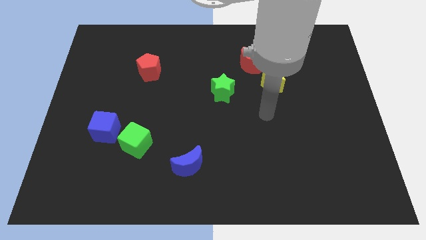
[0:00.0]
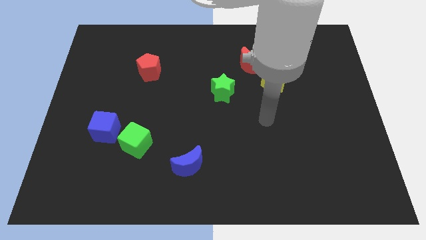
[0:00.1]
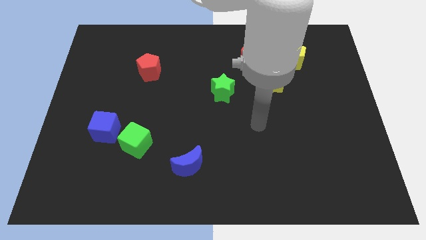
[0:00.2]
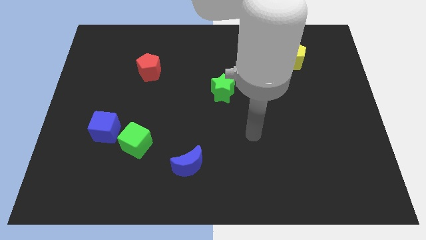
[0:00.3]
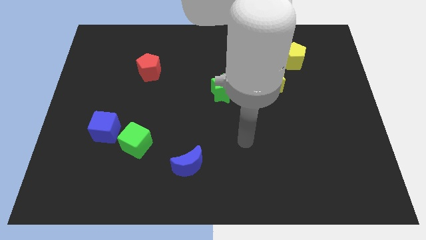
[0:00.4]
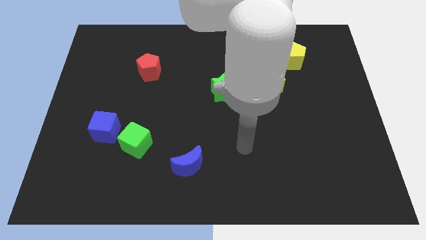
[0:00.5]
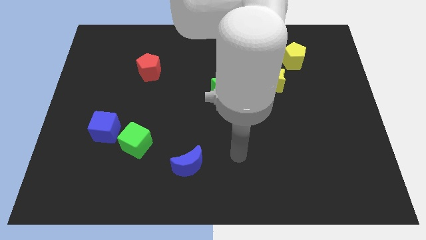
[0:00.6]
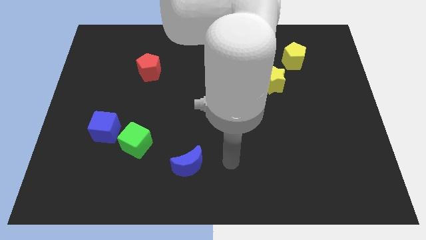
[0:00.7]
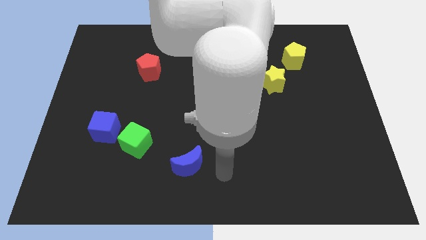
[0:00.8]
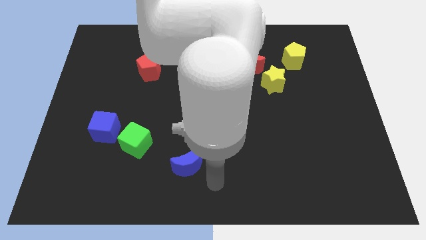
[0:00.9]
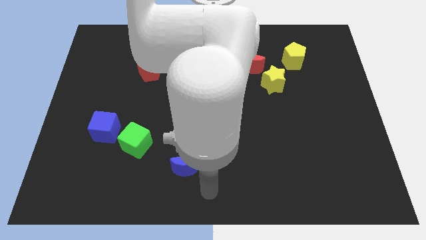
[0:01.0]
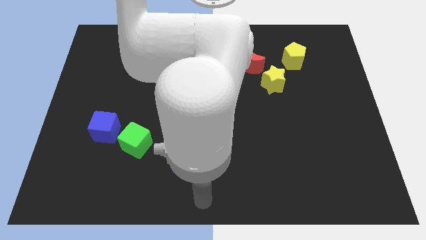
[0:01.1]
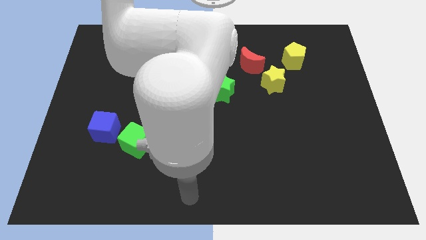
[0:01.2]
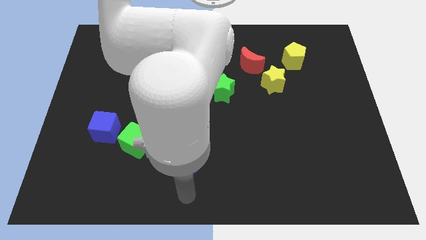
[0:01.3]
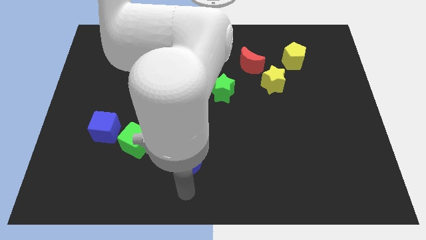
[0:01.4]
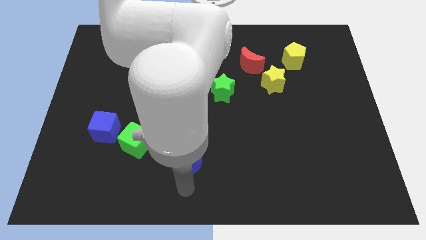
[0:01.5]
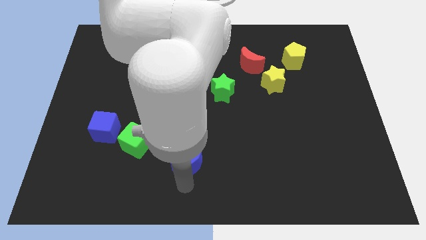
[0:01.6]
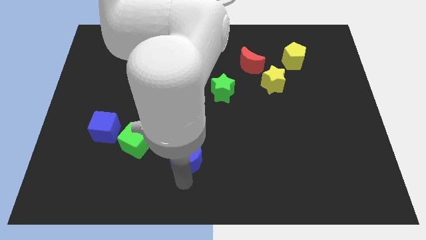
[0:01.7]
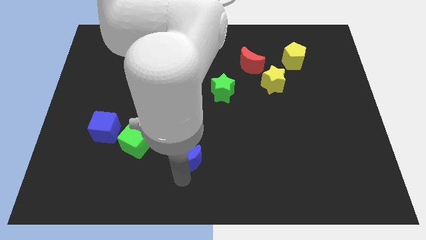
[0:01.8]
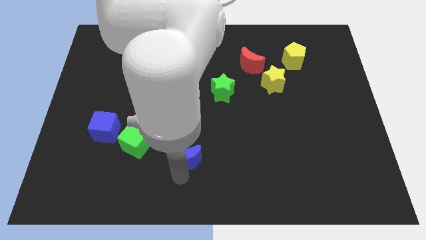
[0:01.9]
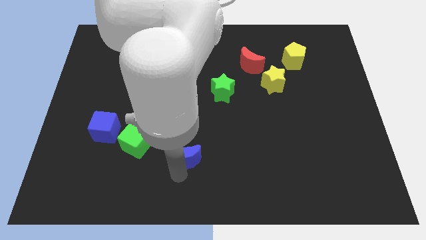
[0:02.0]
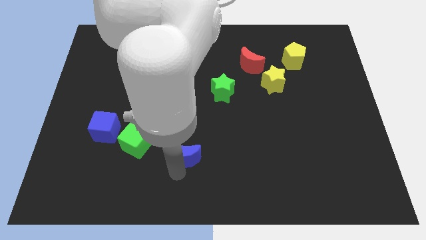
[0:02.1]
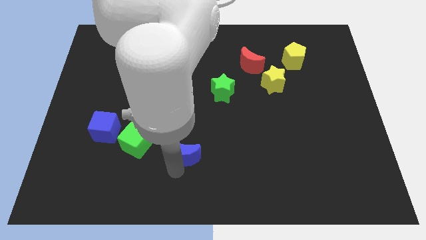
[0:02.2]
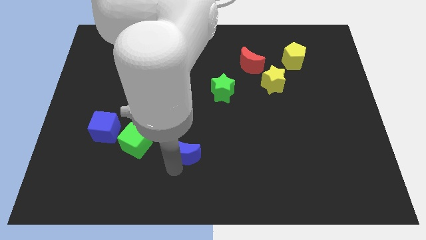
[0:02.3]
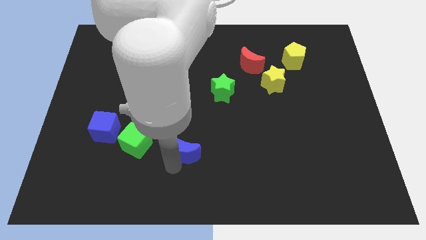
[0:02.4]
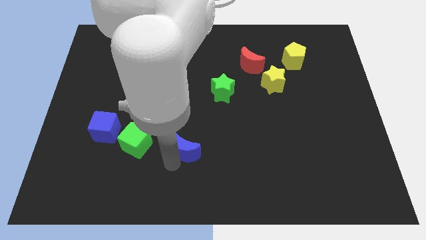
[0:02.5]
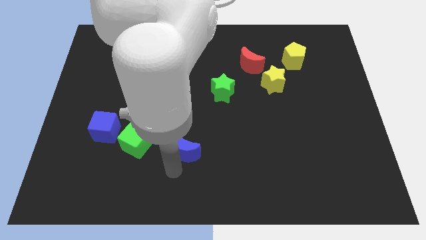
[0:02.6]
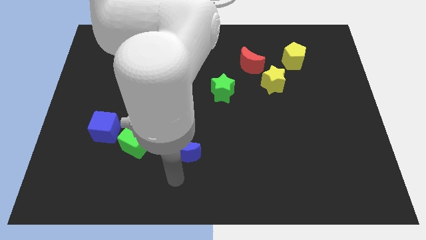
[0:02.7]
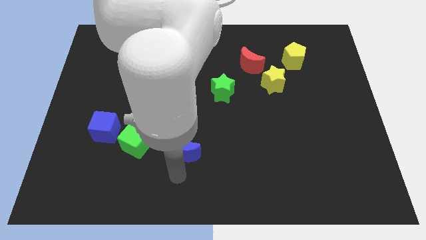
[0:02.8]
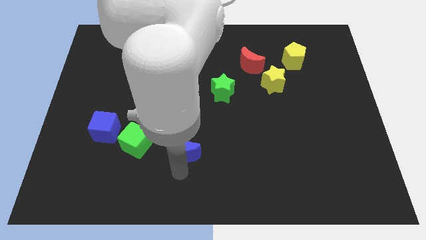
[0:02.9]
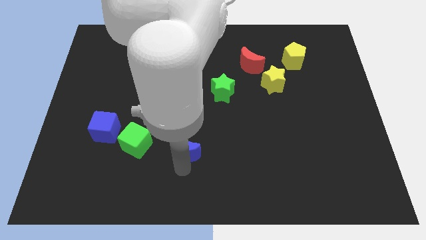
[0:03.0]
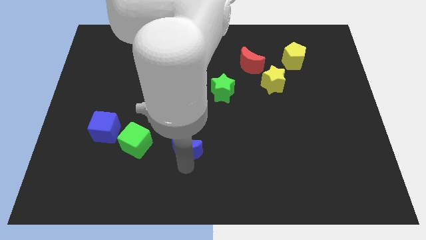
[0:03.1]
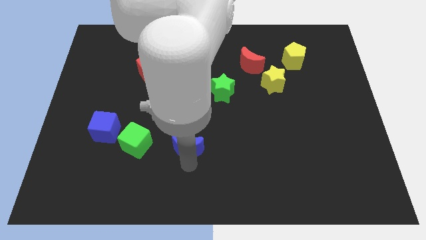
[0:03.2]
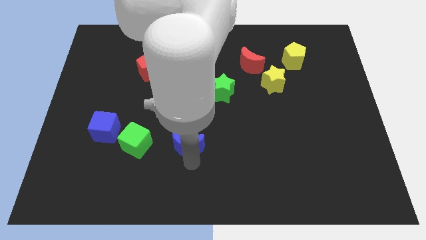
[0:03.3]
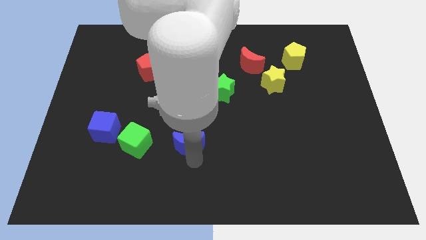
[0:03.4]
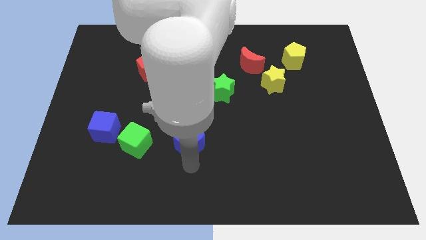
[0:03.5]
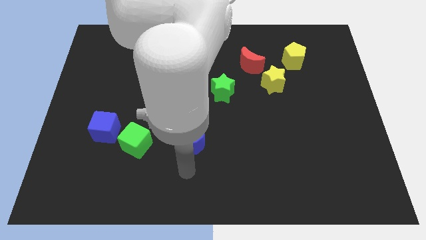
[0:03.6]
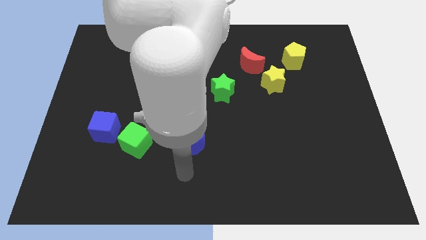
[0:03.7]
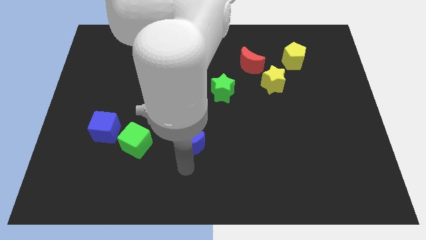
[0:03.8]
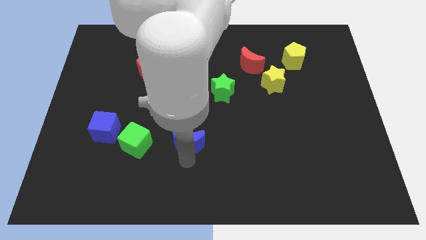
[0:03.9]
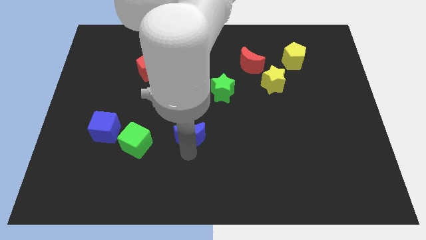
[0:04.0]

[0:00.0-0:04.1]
slide the blue moon upwards slightly

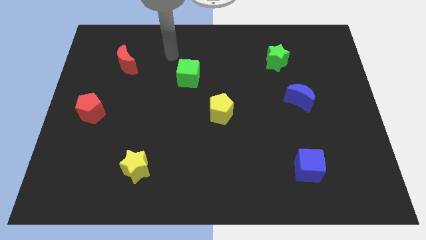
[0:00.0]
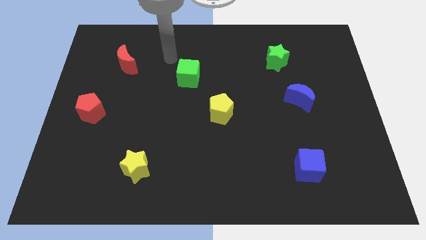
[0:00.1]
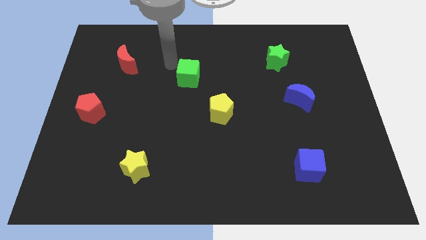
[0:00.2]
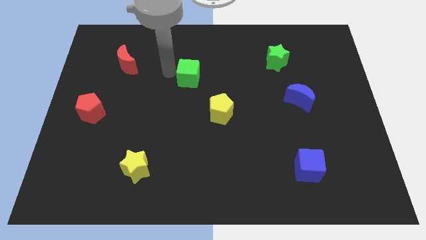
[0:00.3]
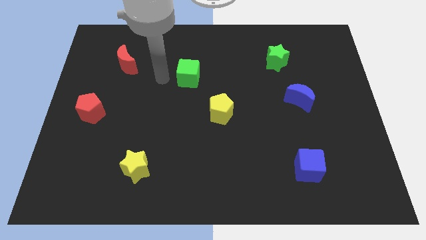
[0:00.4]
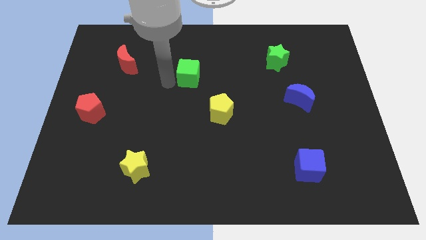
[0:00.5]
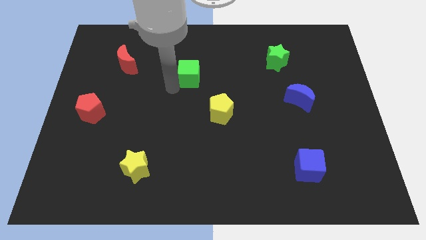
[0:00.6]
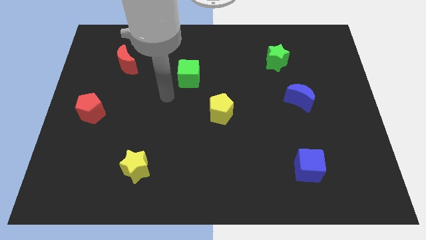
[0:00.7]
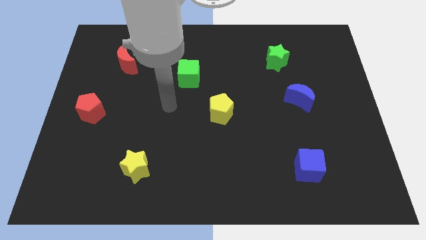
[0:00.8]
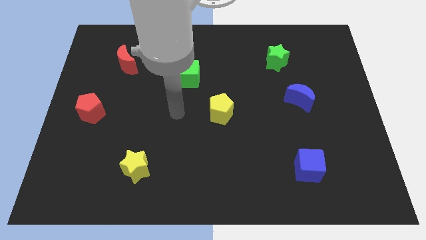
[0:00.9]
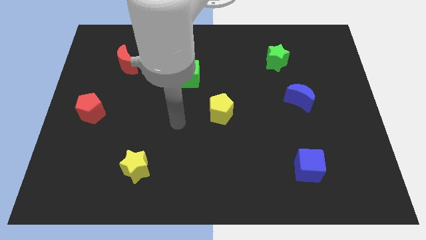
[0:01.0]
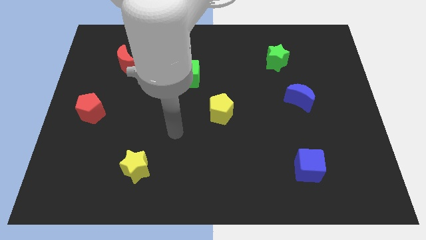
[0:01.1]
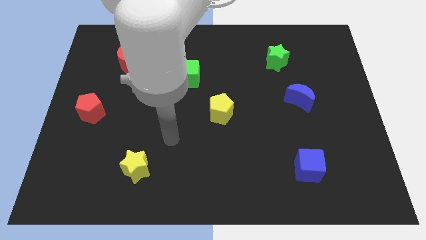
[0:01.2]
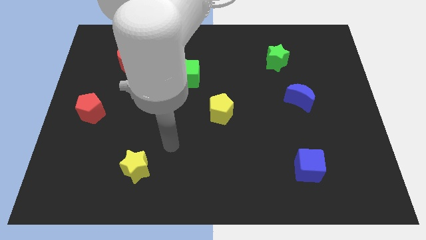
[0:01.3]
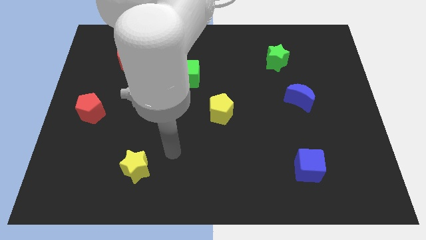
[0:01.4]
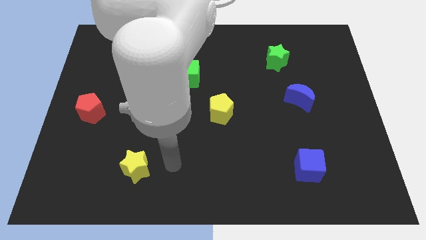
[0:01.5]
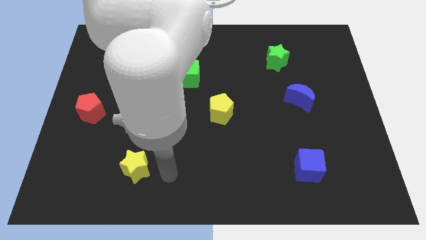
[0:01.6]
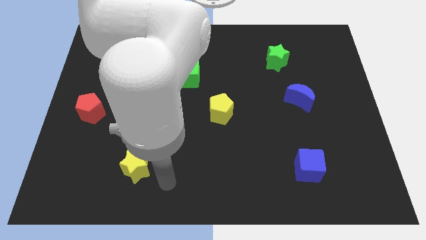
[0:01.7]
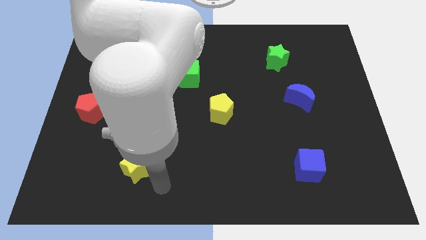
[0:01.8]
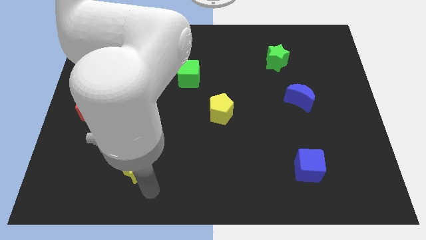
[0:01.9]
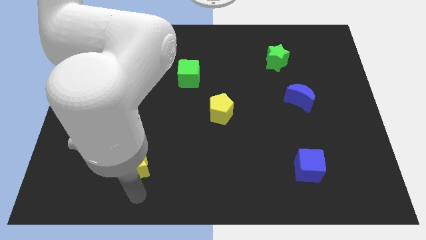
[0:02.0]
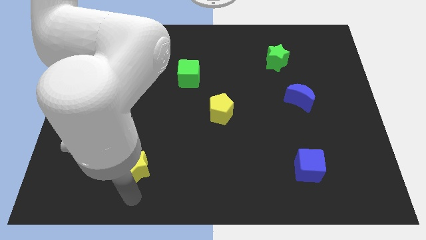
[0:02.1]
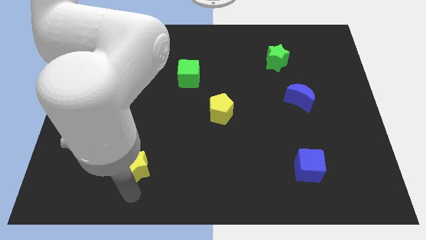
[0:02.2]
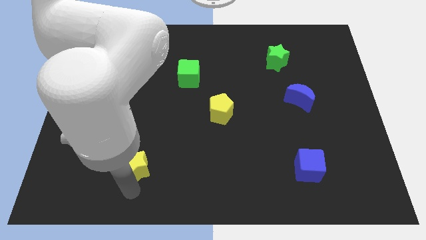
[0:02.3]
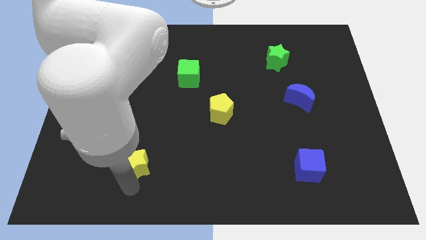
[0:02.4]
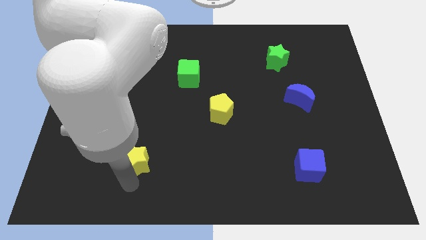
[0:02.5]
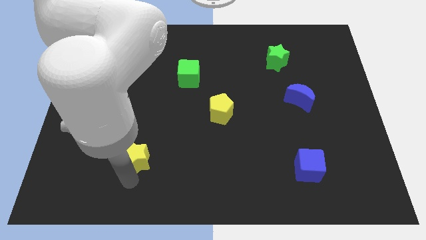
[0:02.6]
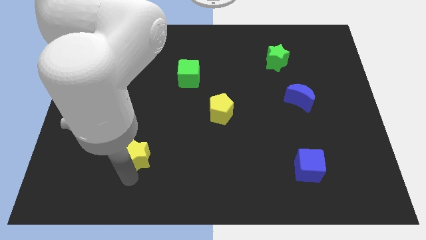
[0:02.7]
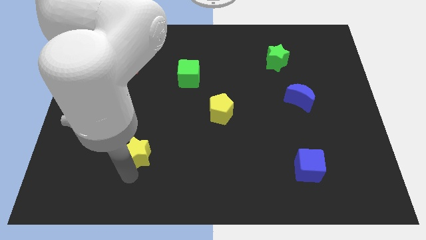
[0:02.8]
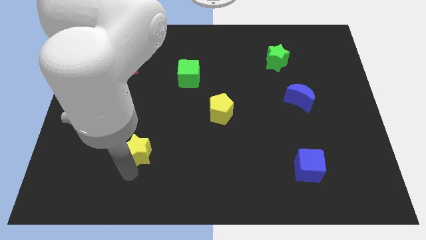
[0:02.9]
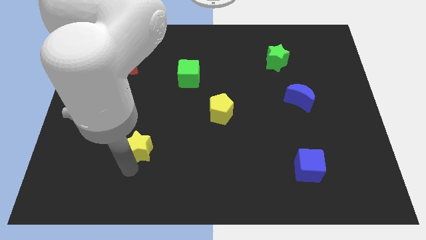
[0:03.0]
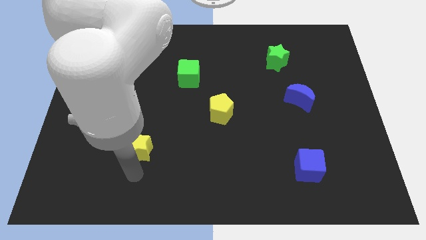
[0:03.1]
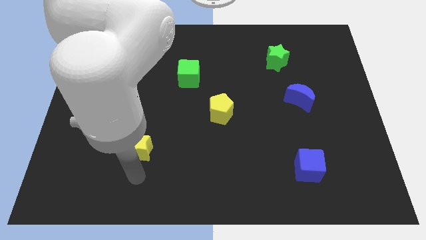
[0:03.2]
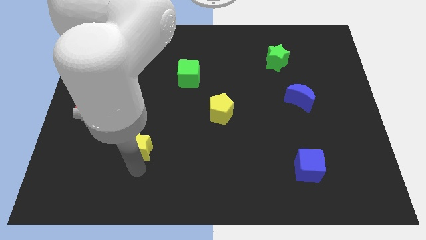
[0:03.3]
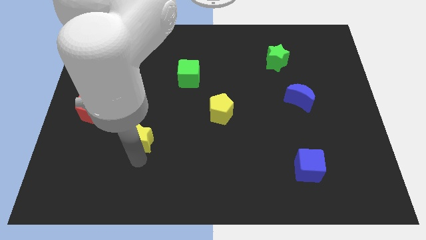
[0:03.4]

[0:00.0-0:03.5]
slightly slide the yellow star upwards

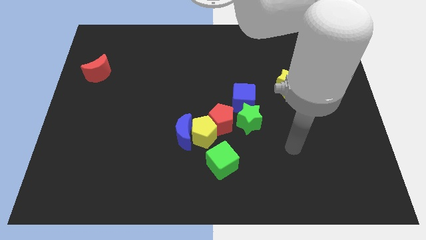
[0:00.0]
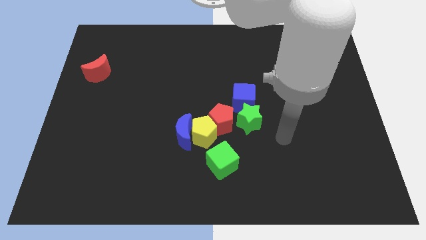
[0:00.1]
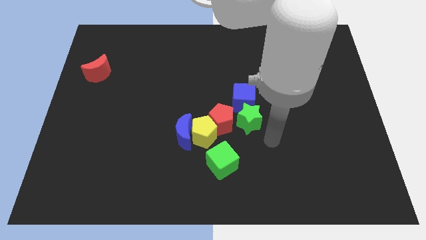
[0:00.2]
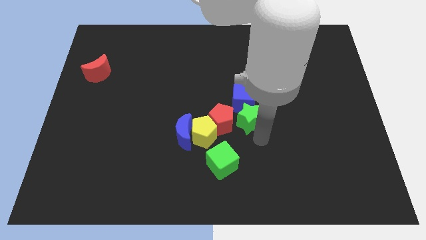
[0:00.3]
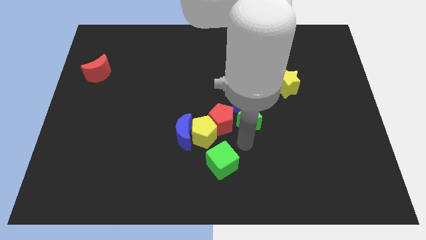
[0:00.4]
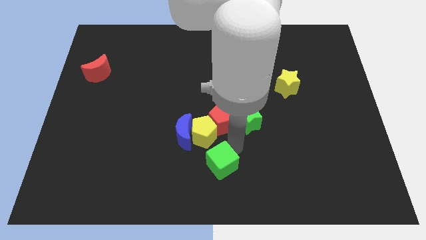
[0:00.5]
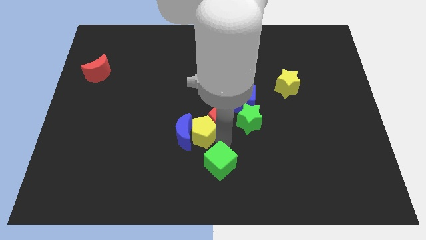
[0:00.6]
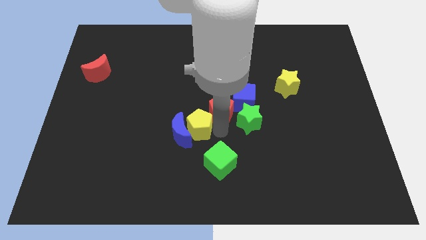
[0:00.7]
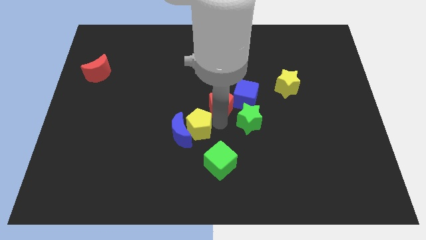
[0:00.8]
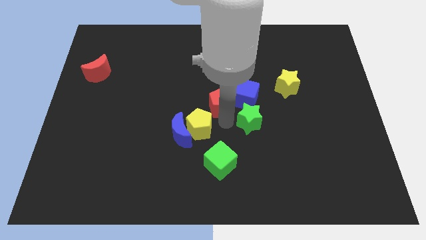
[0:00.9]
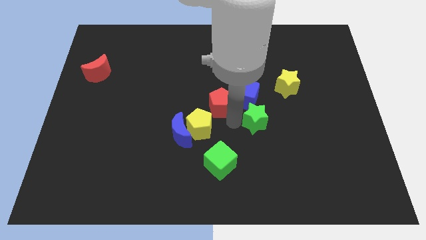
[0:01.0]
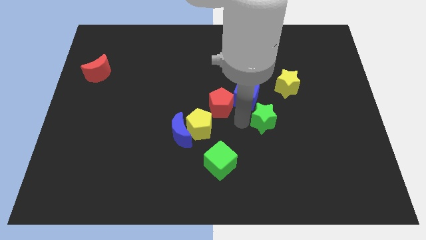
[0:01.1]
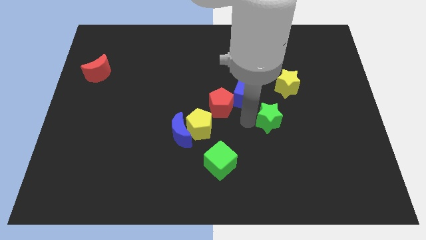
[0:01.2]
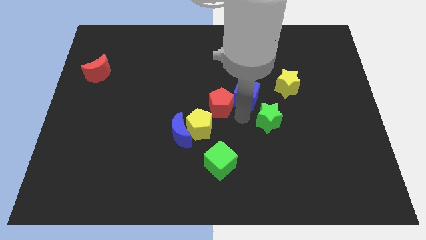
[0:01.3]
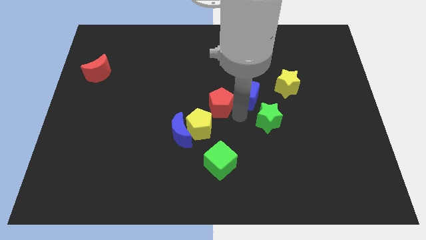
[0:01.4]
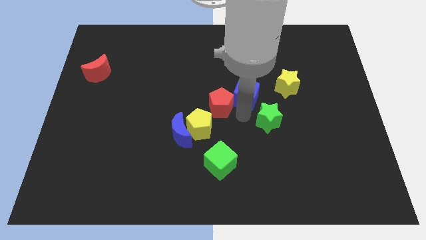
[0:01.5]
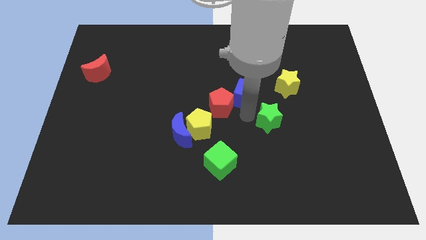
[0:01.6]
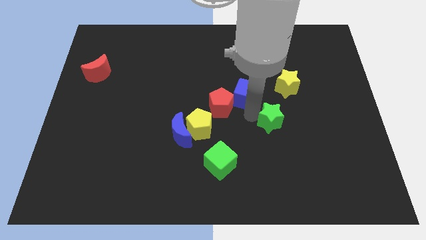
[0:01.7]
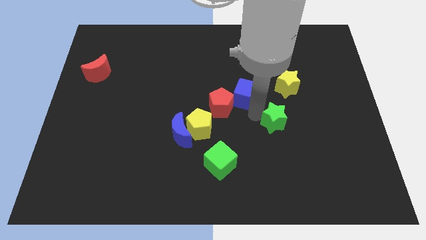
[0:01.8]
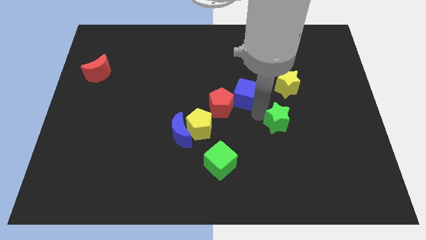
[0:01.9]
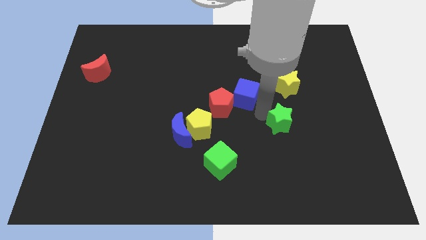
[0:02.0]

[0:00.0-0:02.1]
push the green star to the right slightly
